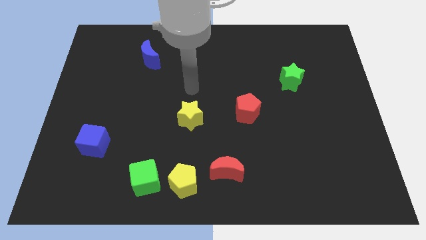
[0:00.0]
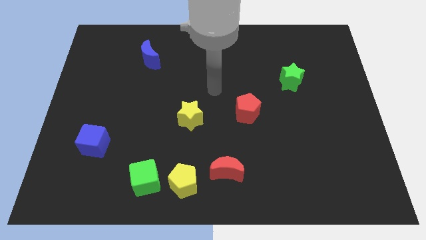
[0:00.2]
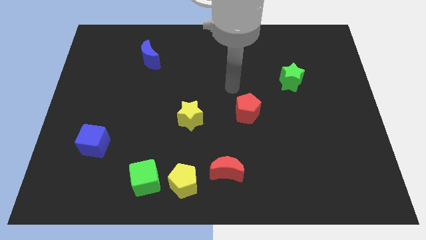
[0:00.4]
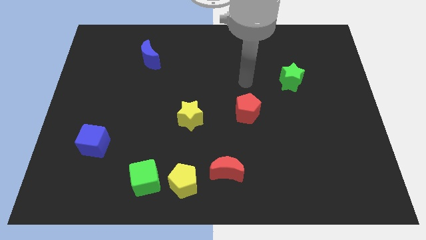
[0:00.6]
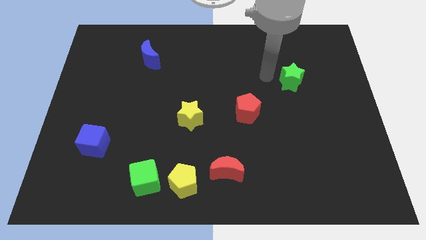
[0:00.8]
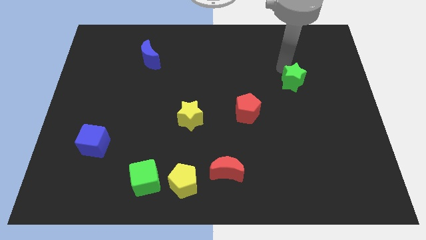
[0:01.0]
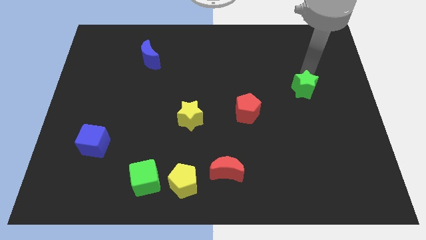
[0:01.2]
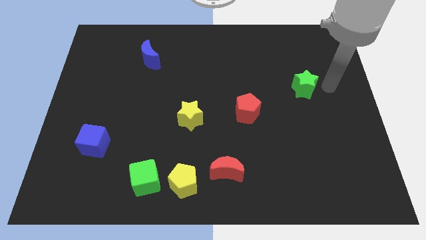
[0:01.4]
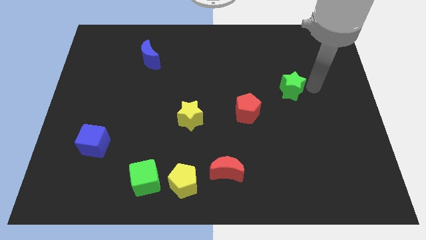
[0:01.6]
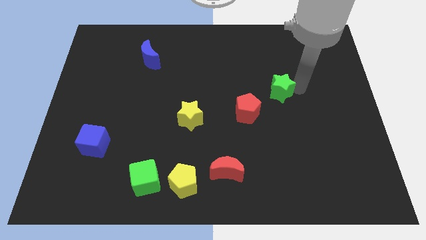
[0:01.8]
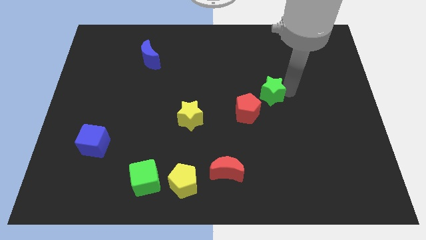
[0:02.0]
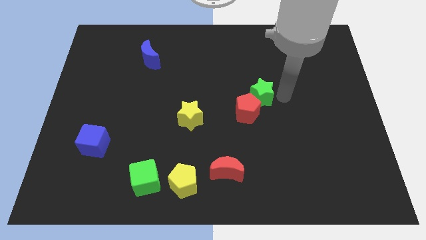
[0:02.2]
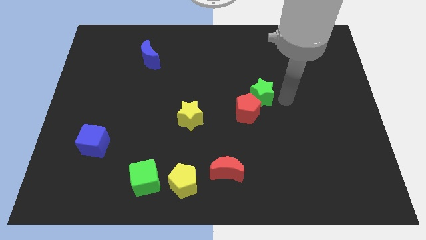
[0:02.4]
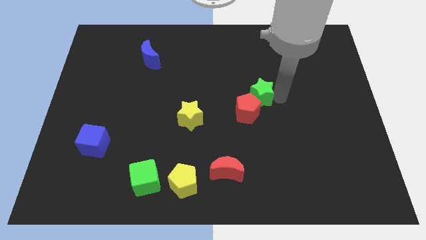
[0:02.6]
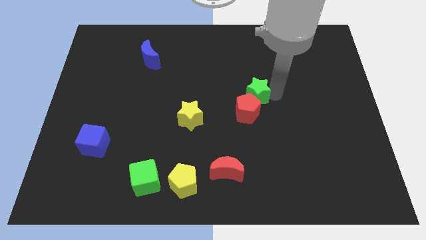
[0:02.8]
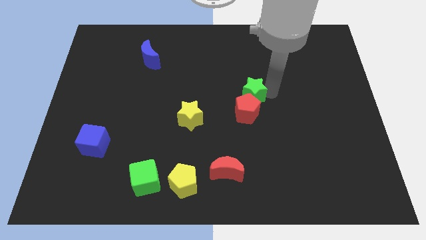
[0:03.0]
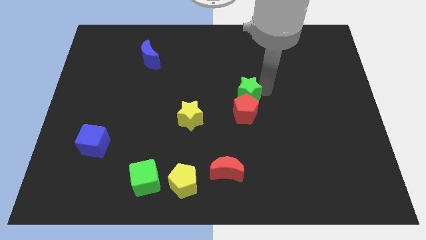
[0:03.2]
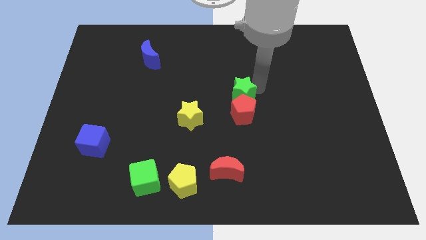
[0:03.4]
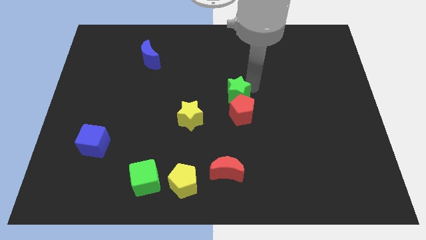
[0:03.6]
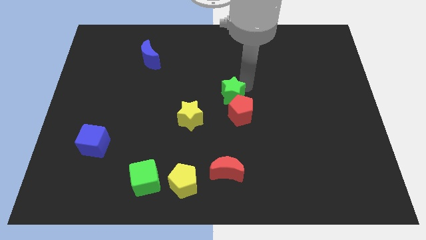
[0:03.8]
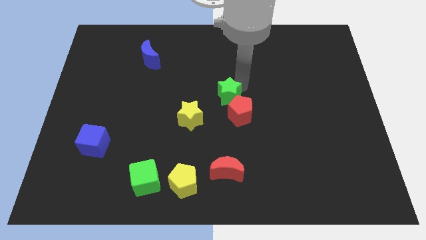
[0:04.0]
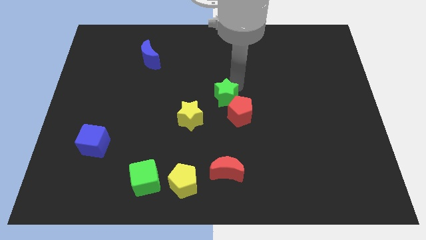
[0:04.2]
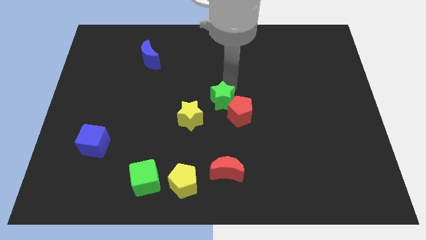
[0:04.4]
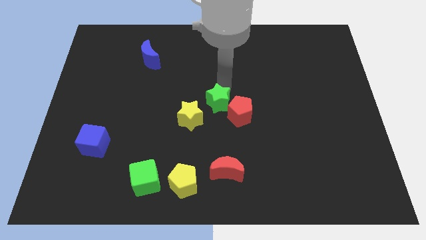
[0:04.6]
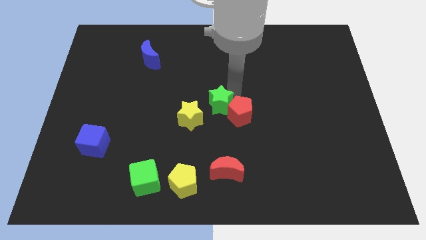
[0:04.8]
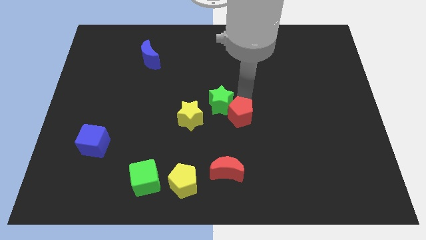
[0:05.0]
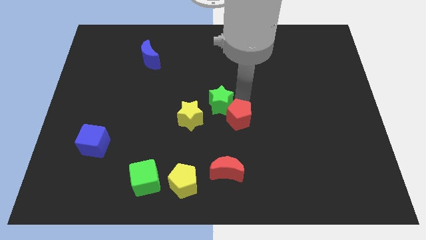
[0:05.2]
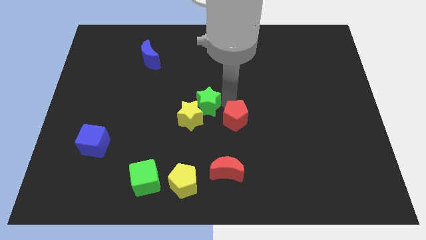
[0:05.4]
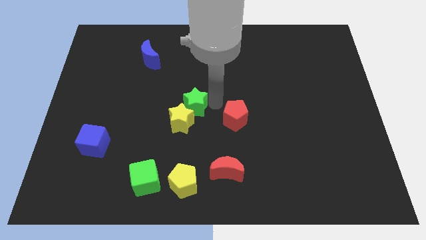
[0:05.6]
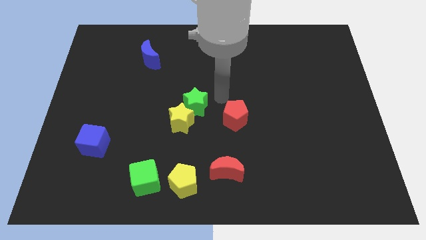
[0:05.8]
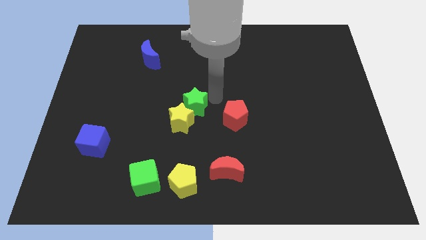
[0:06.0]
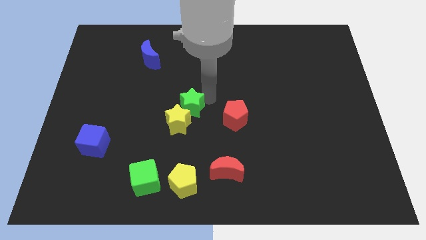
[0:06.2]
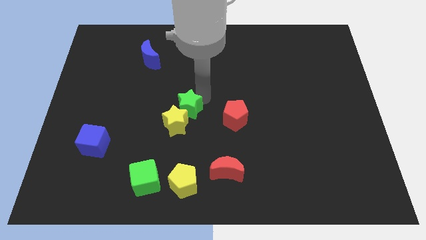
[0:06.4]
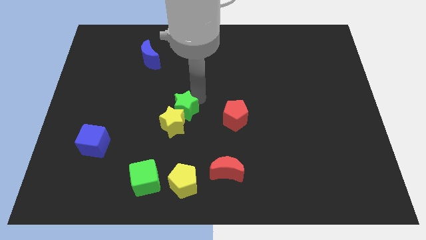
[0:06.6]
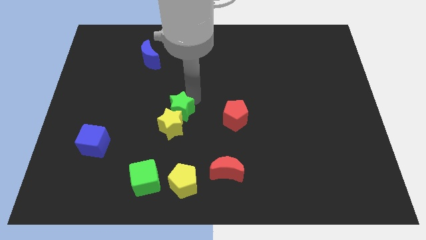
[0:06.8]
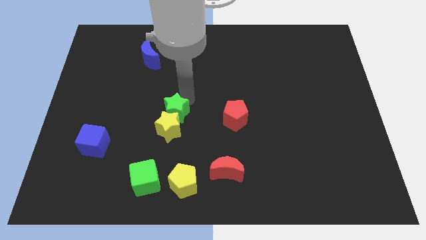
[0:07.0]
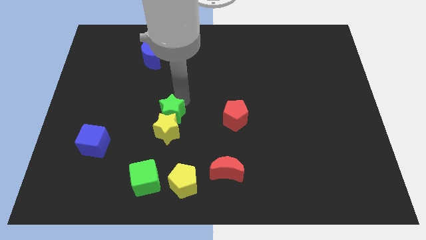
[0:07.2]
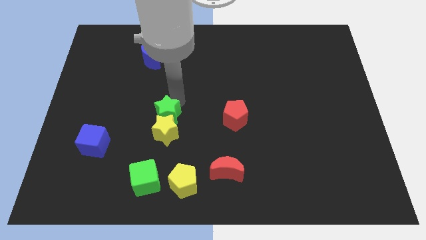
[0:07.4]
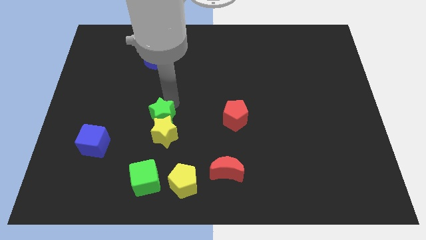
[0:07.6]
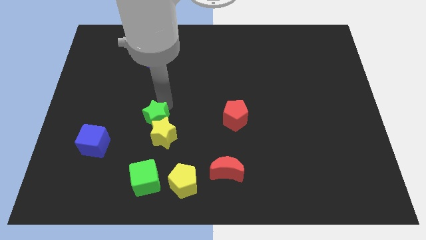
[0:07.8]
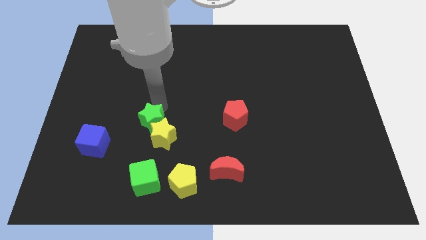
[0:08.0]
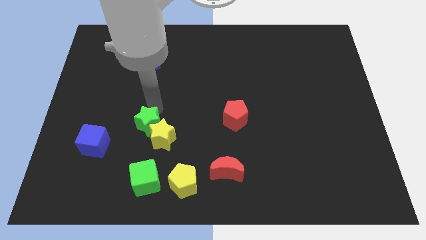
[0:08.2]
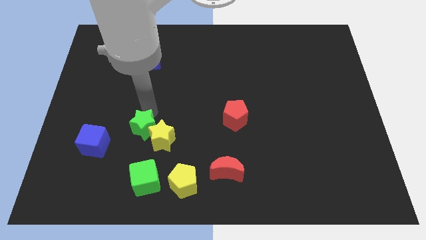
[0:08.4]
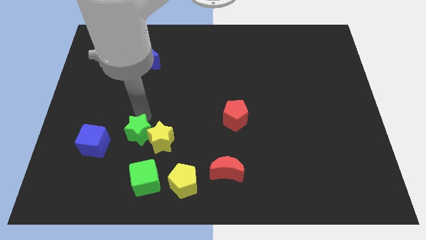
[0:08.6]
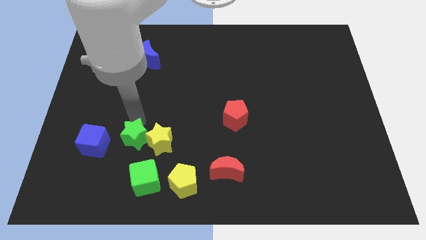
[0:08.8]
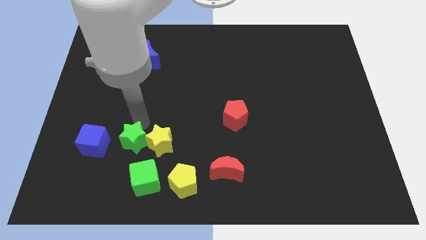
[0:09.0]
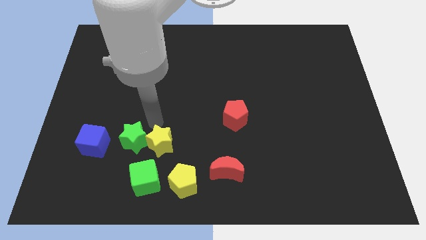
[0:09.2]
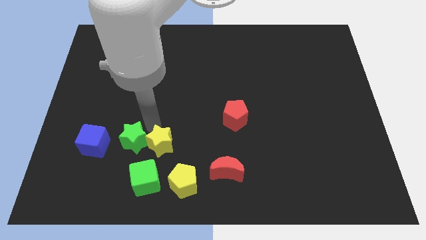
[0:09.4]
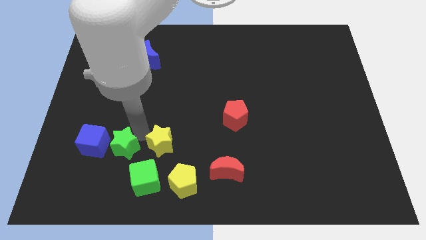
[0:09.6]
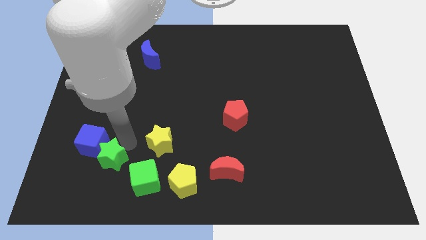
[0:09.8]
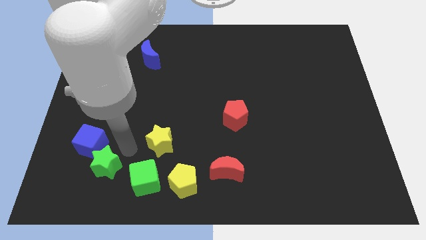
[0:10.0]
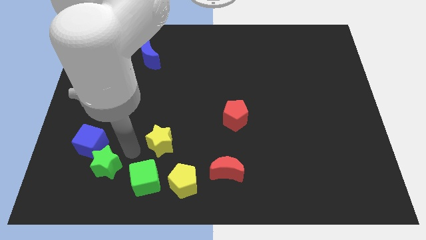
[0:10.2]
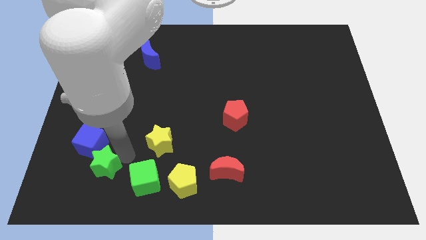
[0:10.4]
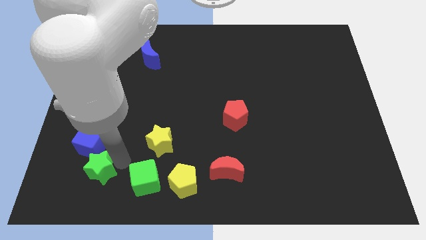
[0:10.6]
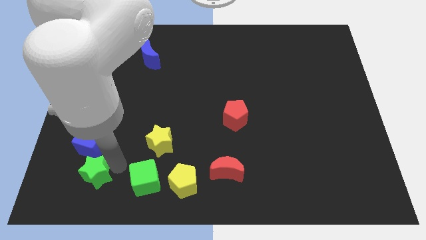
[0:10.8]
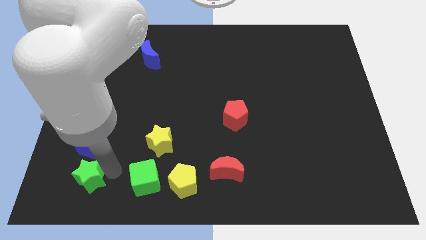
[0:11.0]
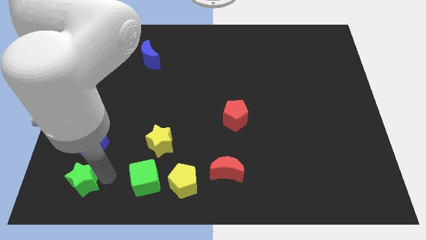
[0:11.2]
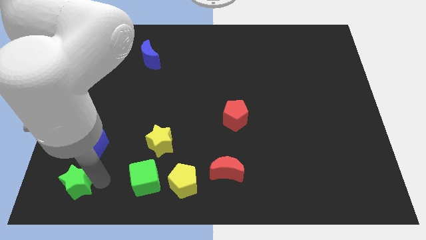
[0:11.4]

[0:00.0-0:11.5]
put the green star to the bottom left corner
